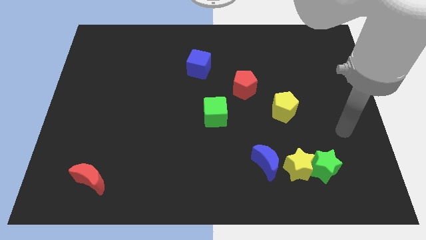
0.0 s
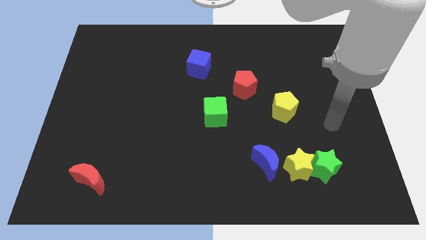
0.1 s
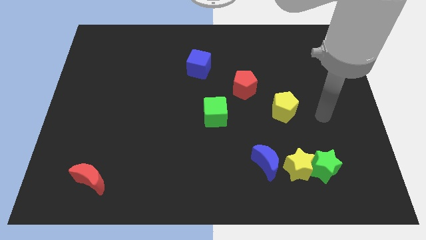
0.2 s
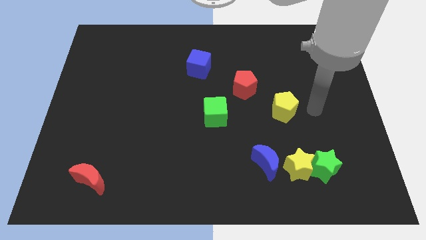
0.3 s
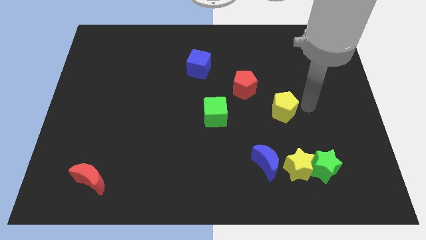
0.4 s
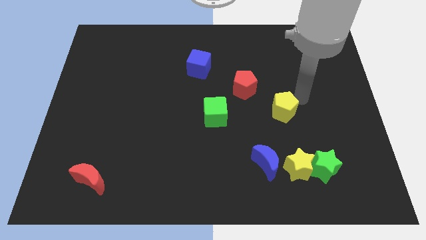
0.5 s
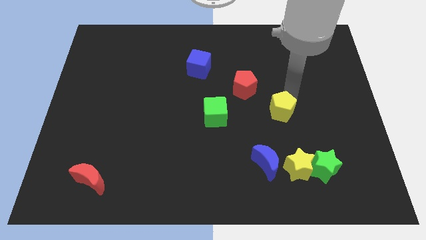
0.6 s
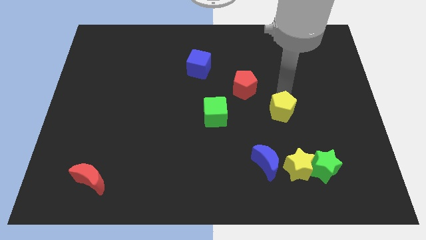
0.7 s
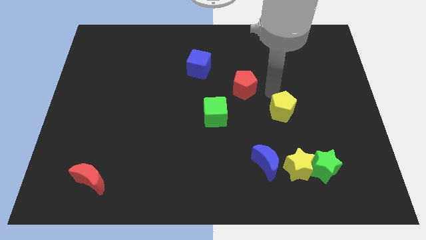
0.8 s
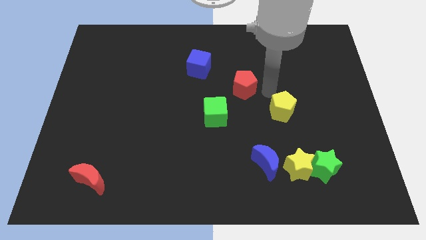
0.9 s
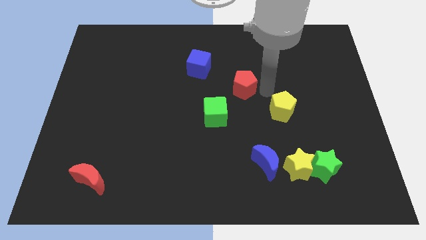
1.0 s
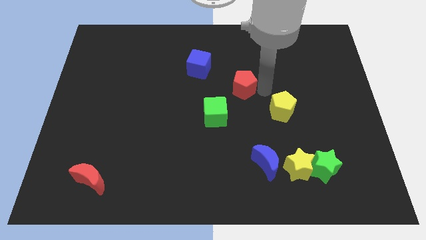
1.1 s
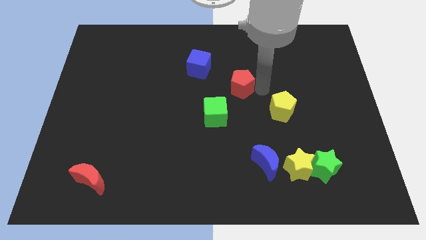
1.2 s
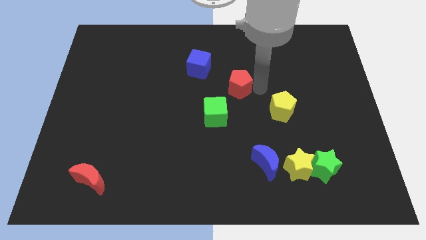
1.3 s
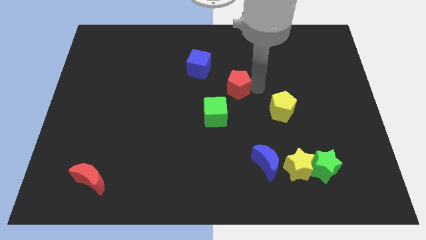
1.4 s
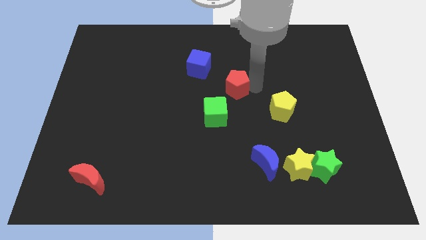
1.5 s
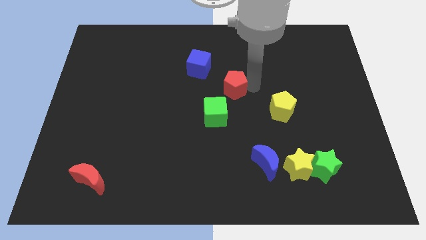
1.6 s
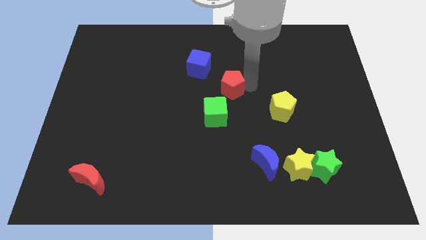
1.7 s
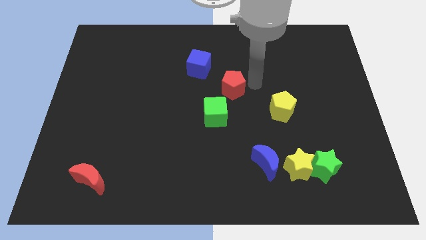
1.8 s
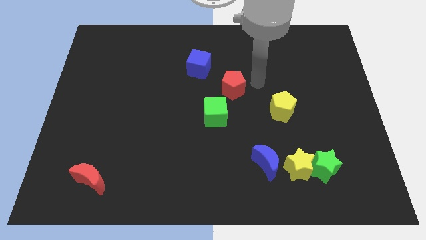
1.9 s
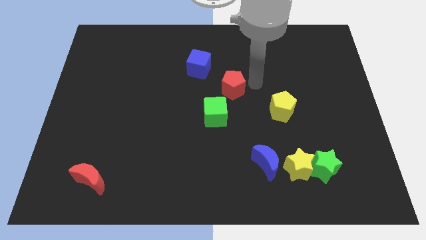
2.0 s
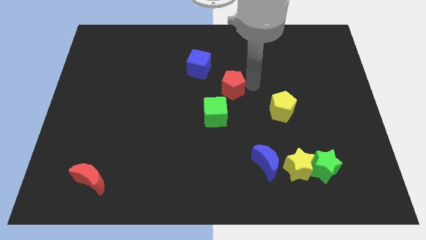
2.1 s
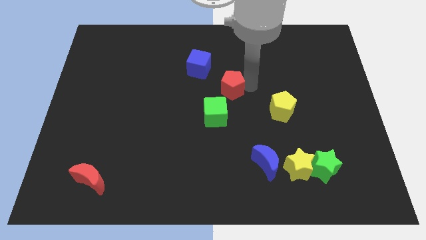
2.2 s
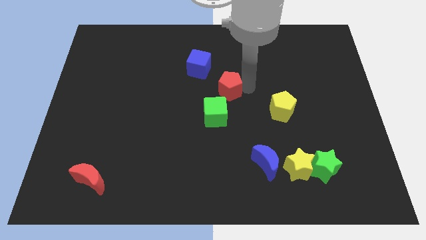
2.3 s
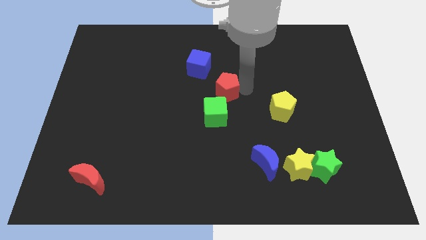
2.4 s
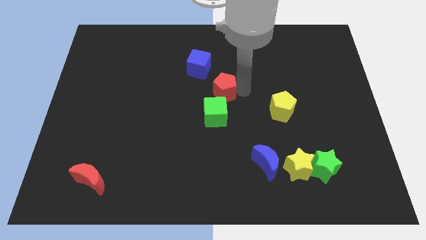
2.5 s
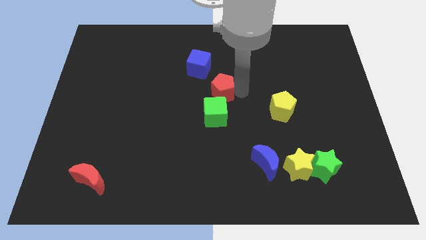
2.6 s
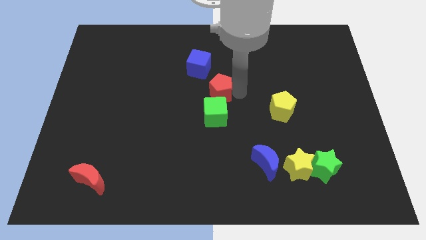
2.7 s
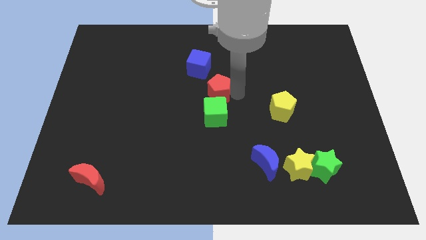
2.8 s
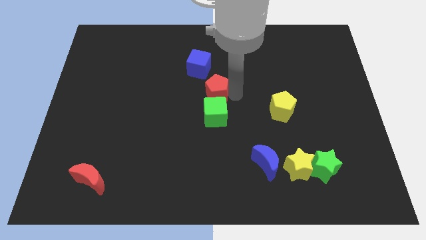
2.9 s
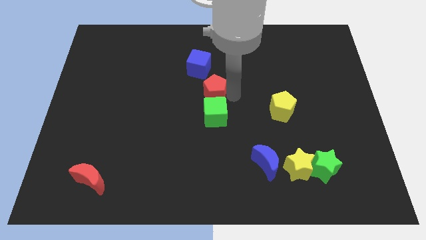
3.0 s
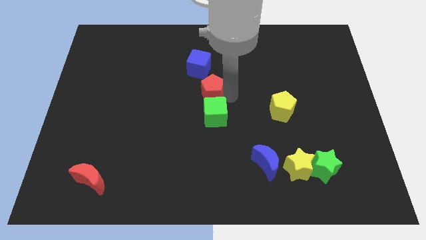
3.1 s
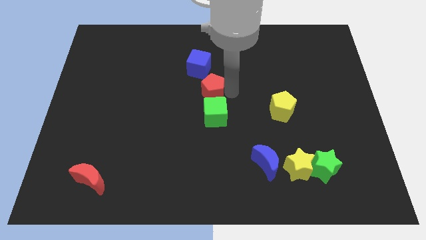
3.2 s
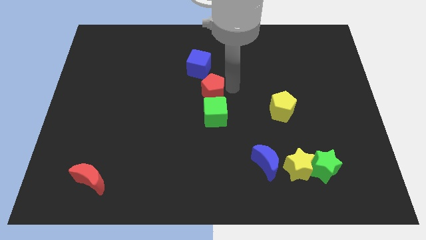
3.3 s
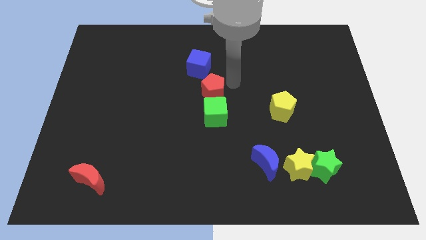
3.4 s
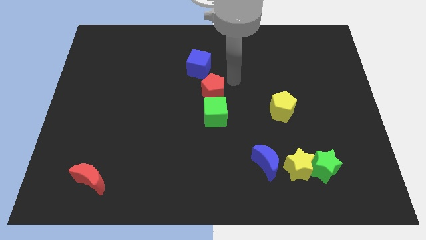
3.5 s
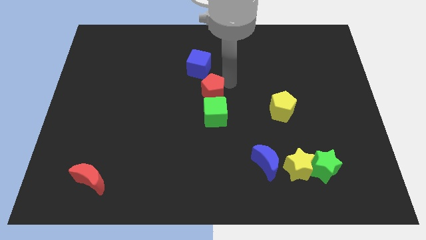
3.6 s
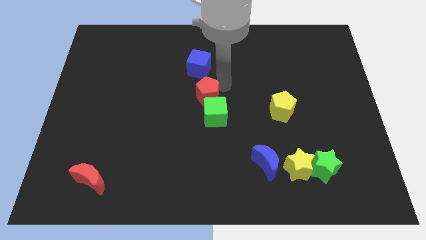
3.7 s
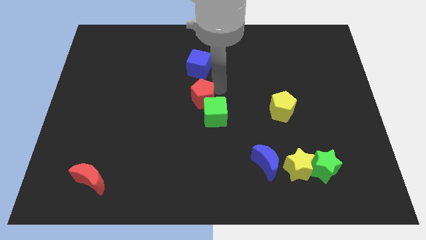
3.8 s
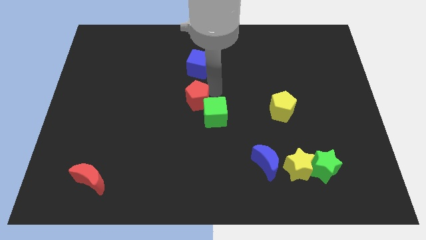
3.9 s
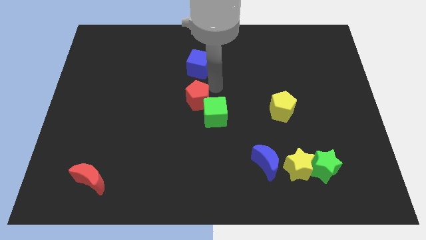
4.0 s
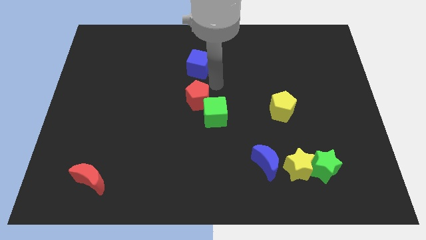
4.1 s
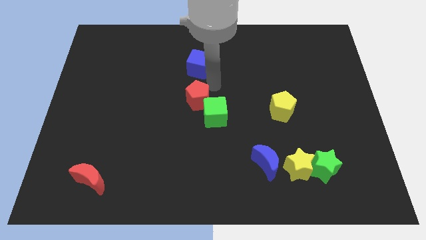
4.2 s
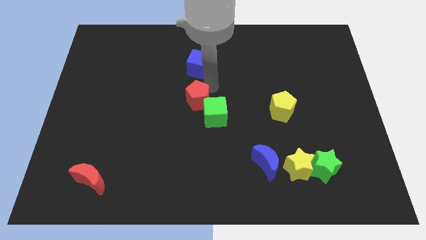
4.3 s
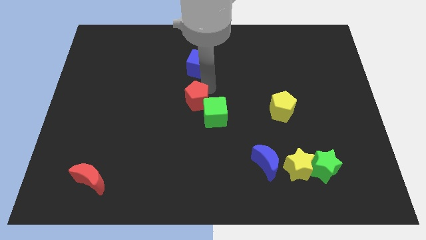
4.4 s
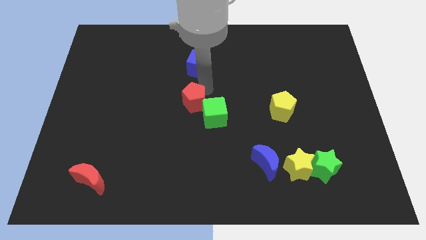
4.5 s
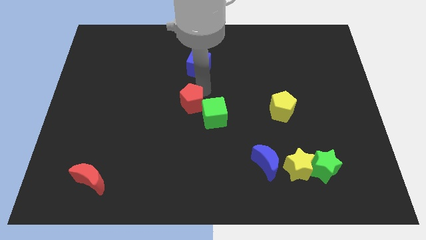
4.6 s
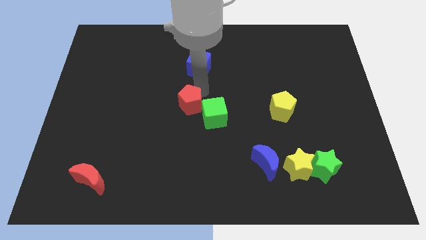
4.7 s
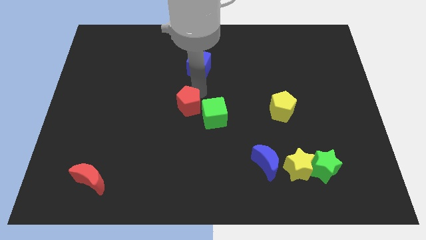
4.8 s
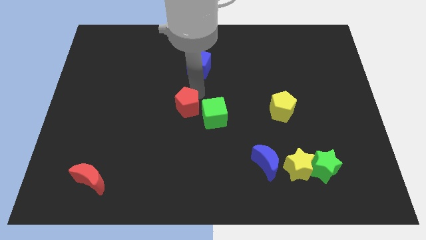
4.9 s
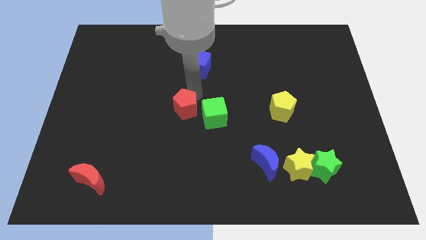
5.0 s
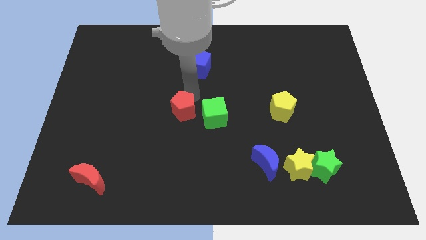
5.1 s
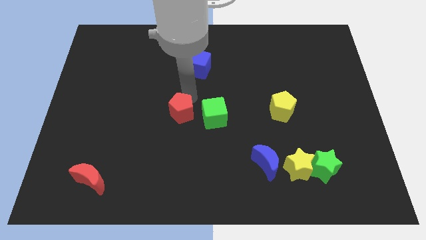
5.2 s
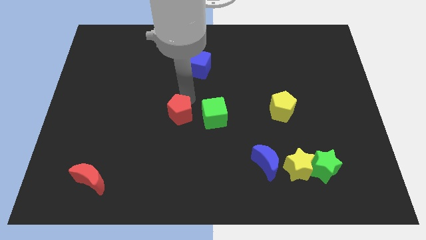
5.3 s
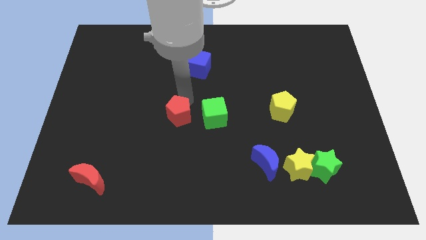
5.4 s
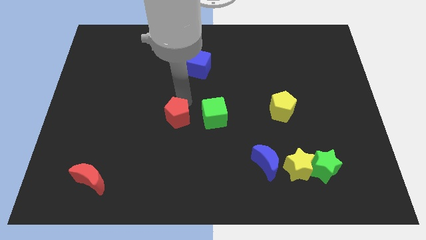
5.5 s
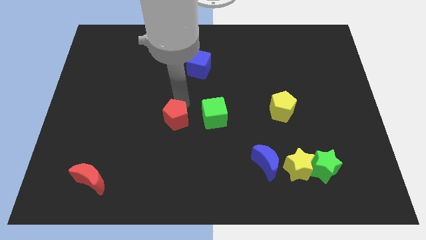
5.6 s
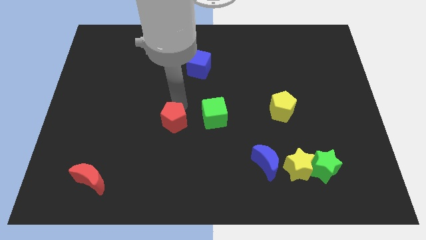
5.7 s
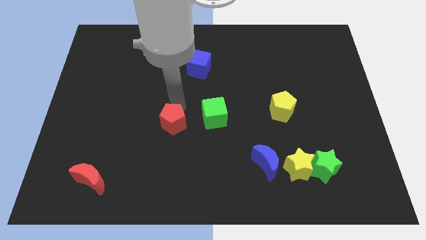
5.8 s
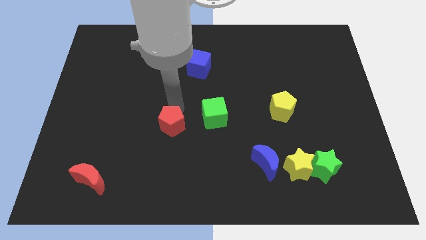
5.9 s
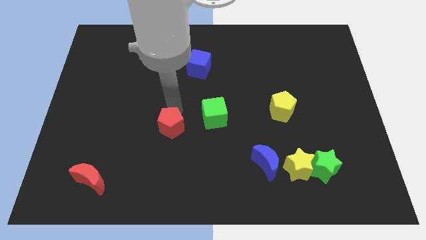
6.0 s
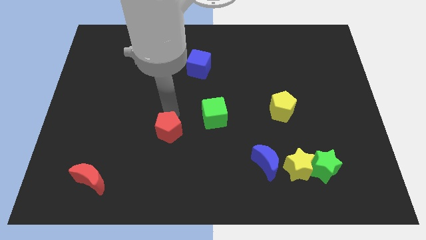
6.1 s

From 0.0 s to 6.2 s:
slide the red pentagon down and then left

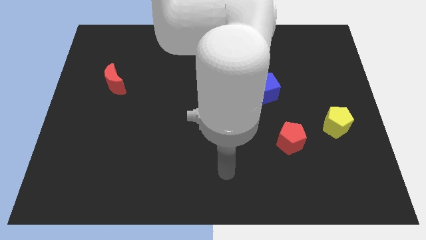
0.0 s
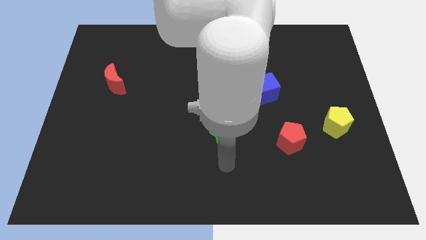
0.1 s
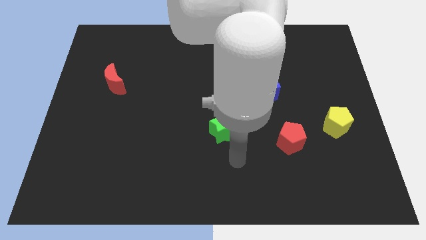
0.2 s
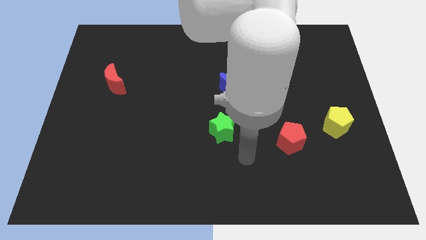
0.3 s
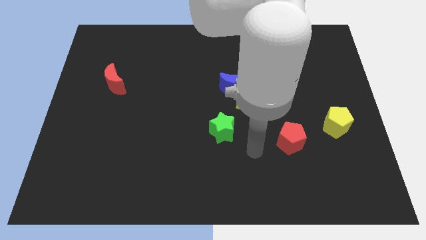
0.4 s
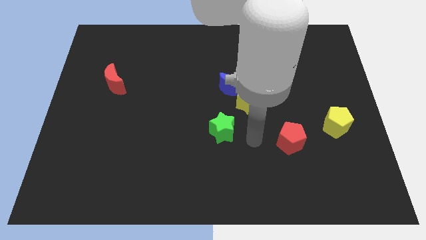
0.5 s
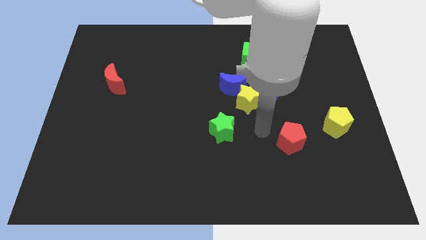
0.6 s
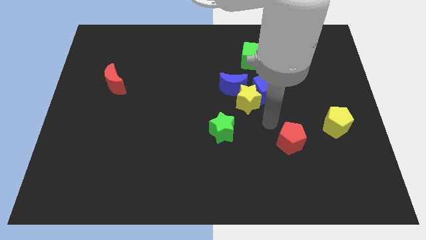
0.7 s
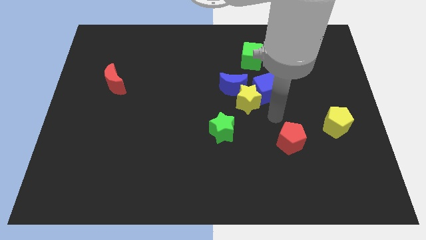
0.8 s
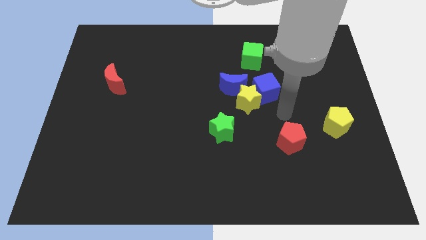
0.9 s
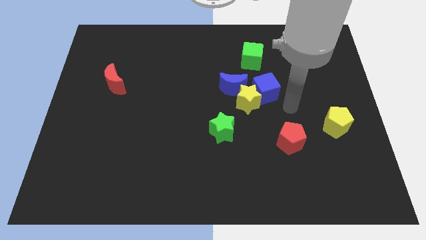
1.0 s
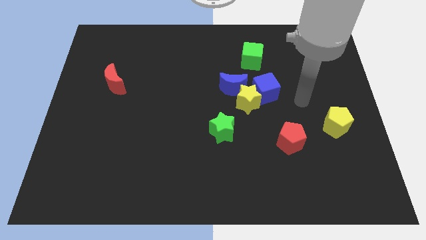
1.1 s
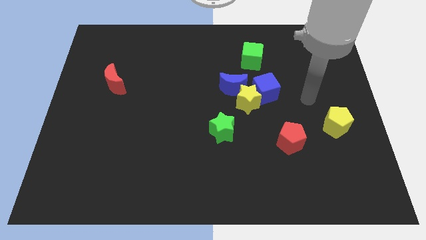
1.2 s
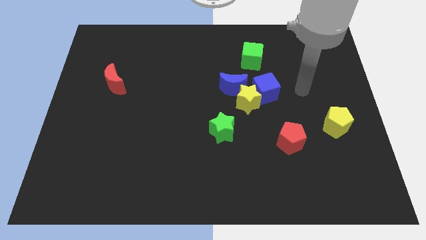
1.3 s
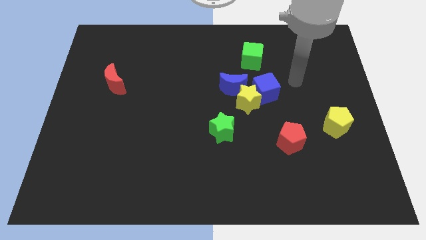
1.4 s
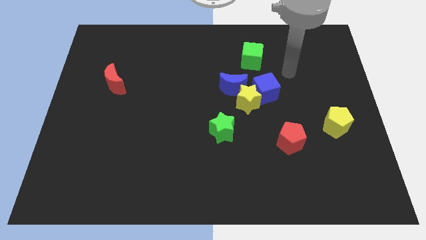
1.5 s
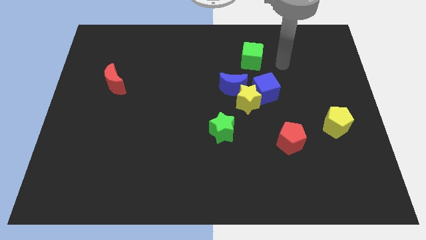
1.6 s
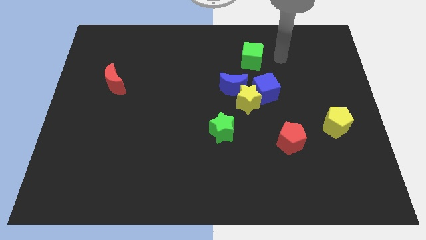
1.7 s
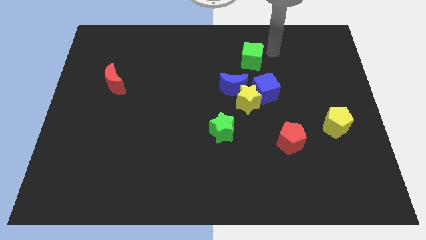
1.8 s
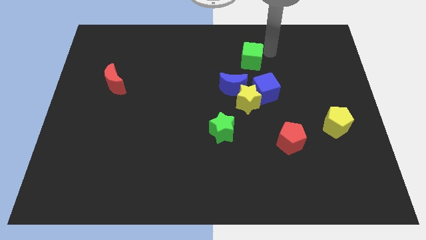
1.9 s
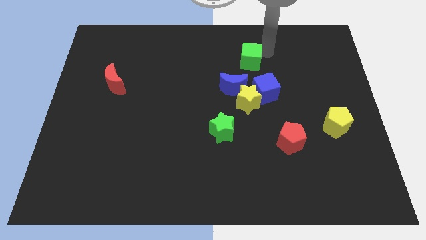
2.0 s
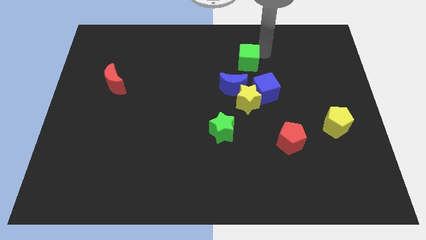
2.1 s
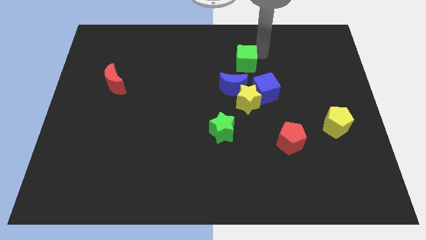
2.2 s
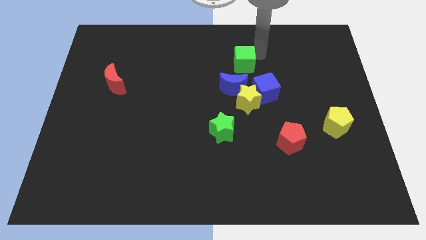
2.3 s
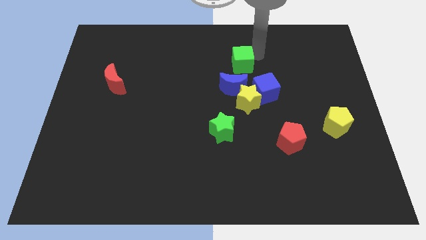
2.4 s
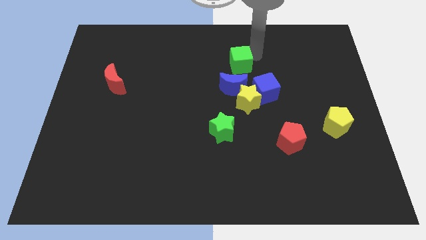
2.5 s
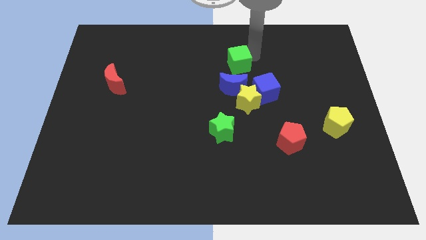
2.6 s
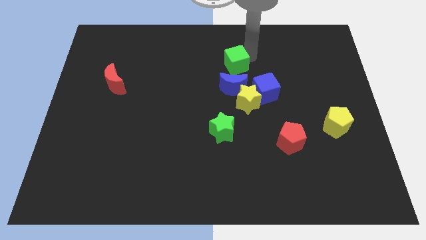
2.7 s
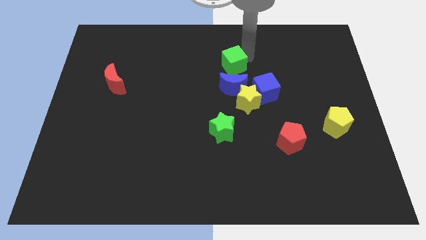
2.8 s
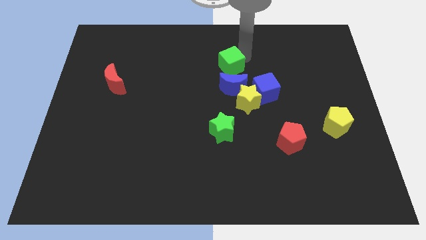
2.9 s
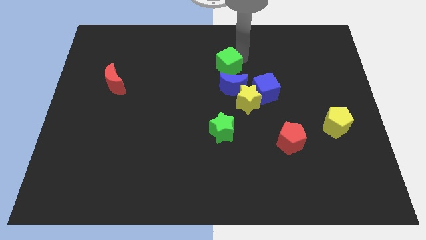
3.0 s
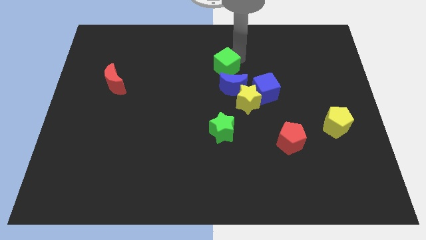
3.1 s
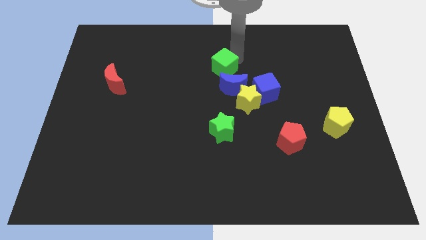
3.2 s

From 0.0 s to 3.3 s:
push the green cube a bit down and to the left diagonally
